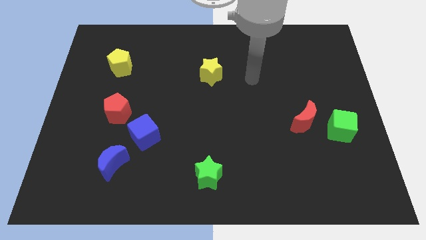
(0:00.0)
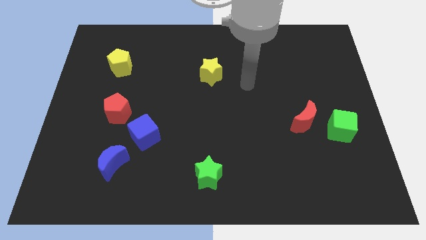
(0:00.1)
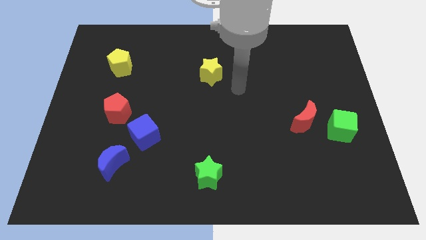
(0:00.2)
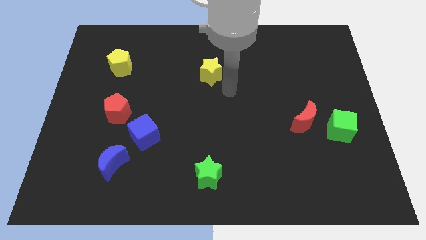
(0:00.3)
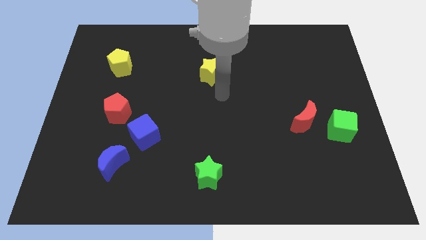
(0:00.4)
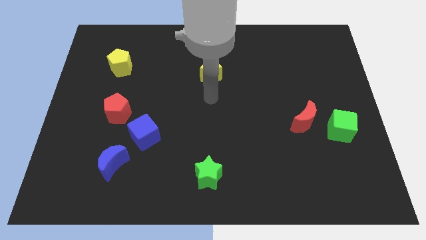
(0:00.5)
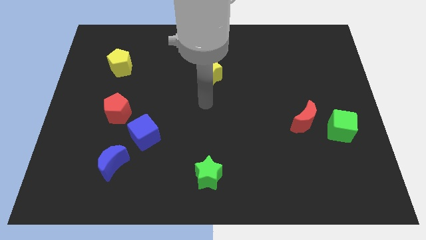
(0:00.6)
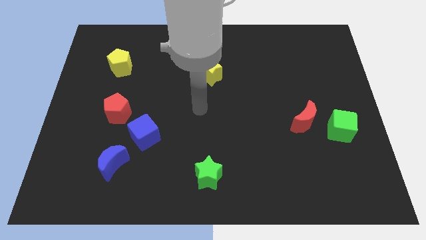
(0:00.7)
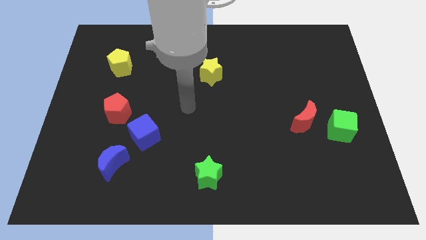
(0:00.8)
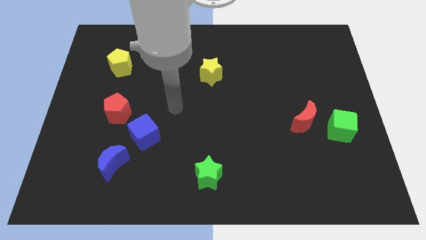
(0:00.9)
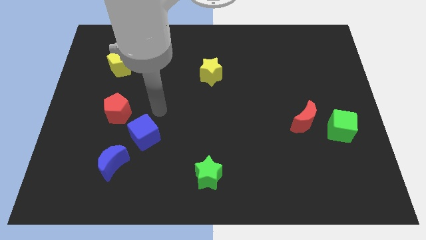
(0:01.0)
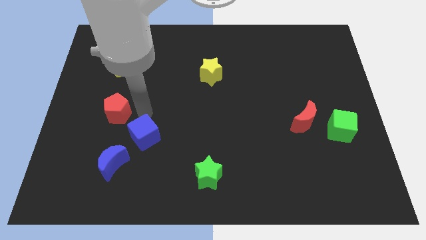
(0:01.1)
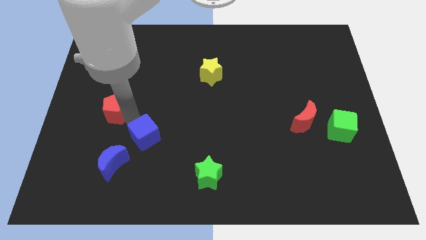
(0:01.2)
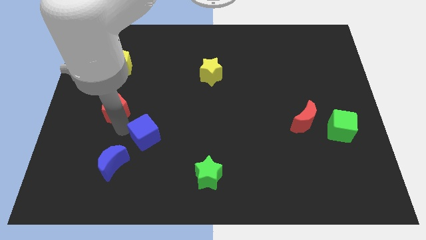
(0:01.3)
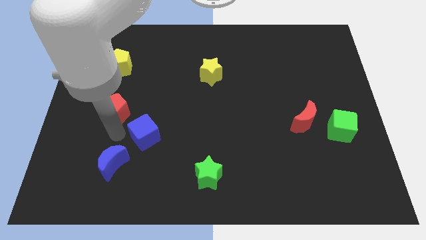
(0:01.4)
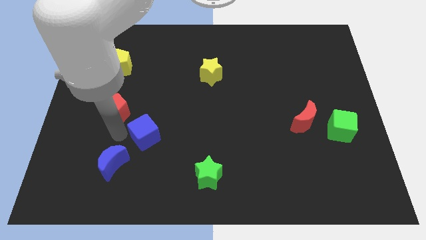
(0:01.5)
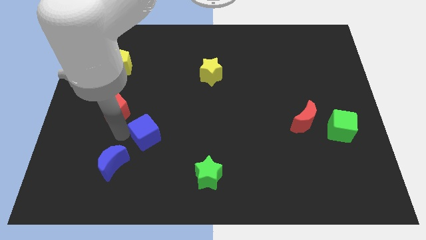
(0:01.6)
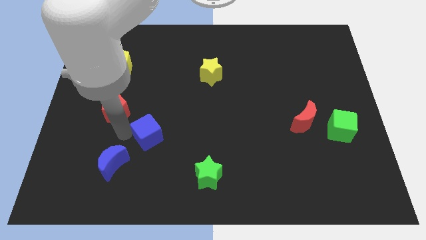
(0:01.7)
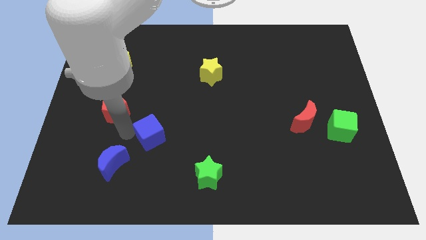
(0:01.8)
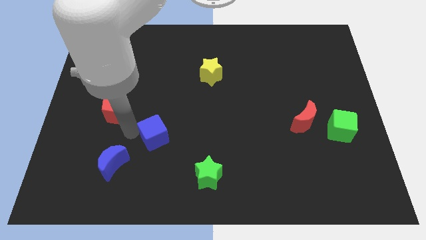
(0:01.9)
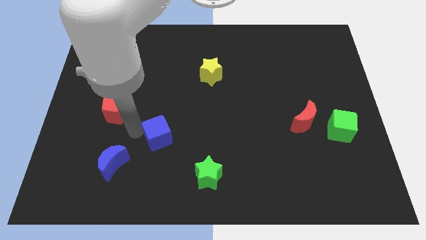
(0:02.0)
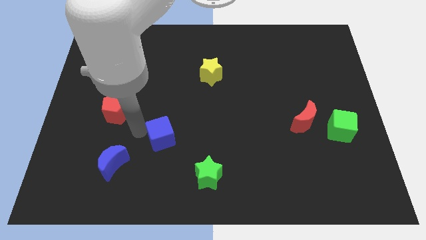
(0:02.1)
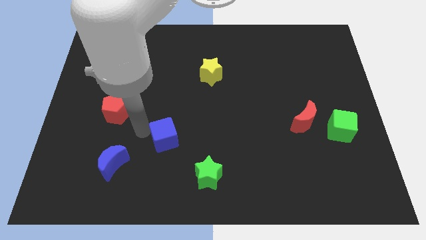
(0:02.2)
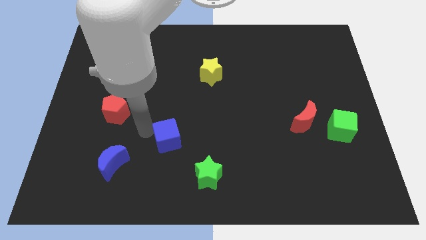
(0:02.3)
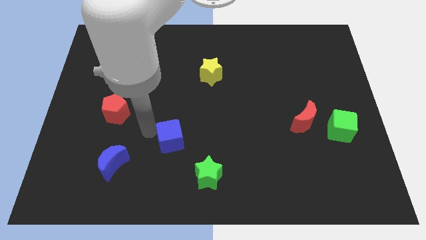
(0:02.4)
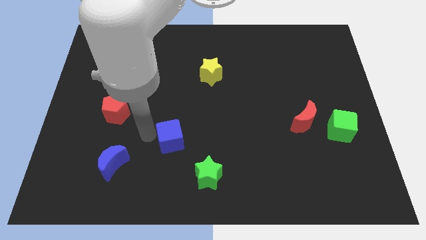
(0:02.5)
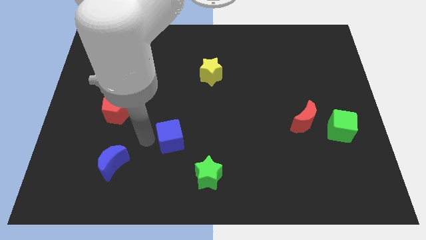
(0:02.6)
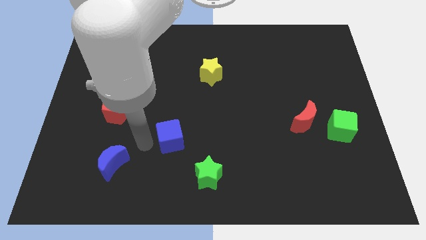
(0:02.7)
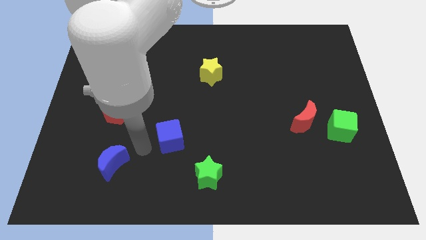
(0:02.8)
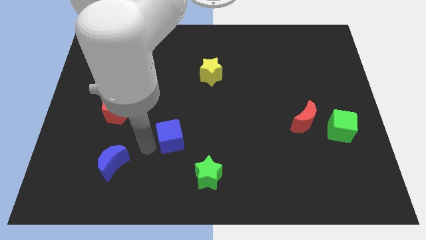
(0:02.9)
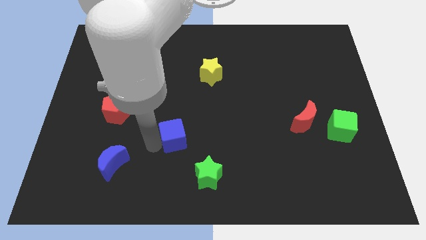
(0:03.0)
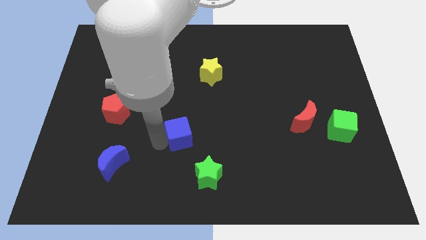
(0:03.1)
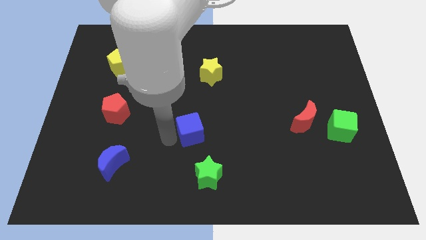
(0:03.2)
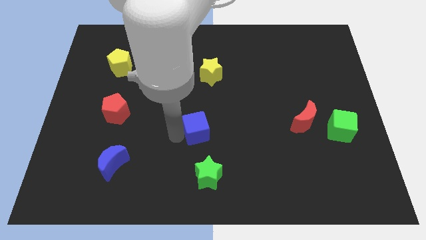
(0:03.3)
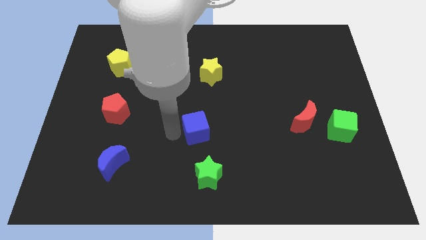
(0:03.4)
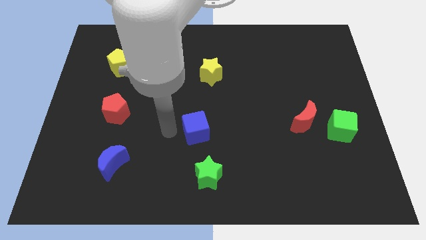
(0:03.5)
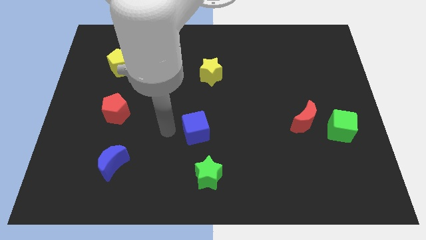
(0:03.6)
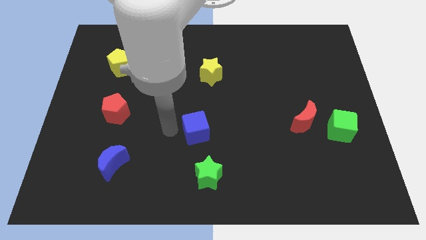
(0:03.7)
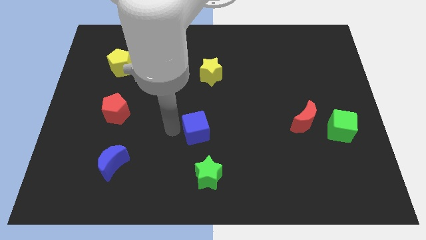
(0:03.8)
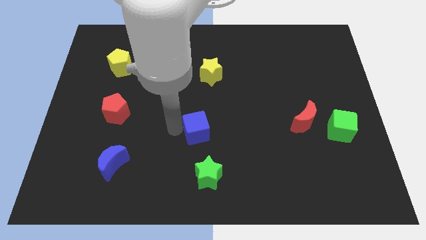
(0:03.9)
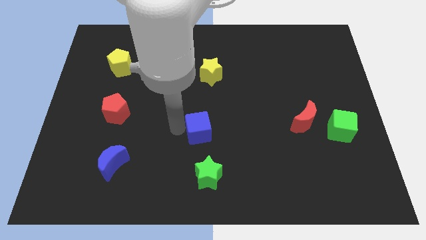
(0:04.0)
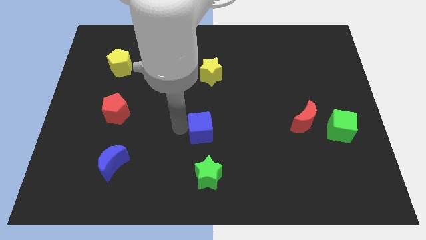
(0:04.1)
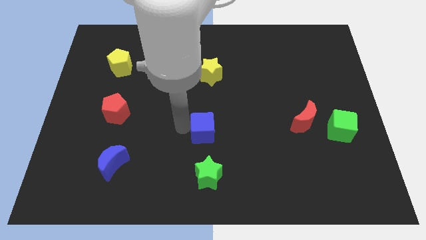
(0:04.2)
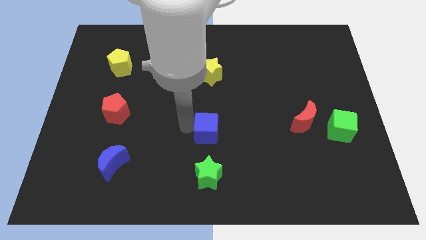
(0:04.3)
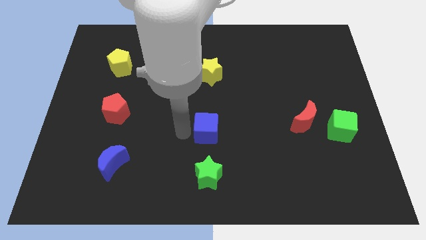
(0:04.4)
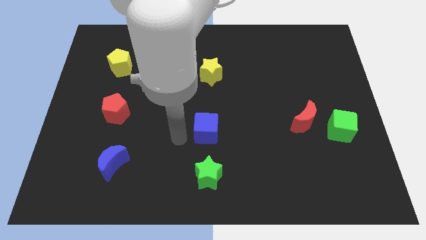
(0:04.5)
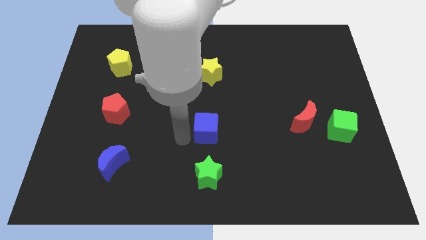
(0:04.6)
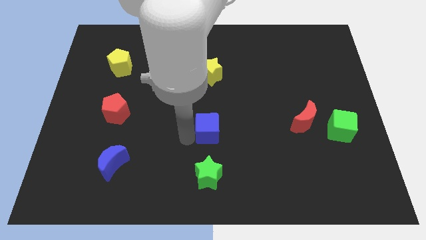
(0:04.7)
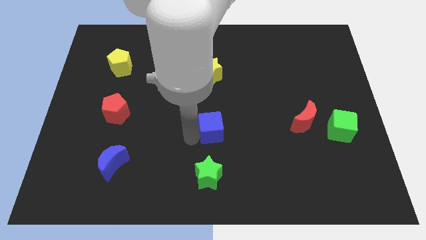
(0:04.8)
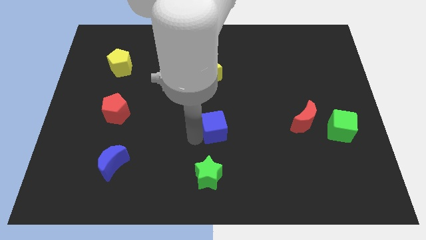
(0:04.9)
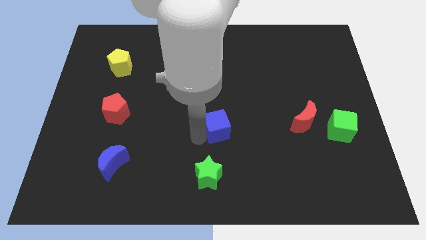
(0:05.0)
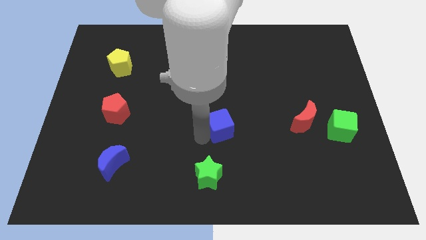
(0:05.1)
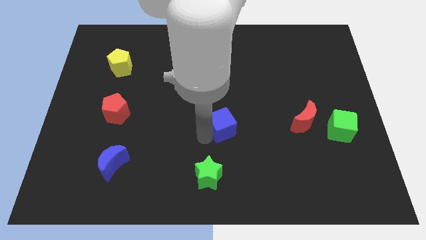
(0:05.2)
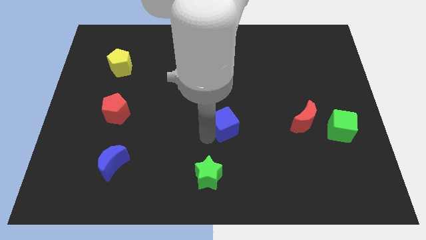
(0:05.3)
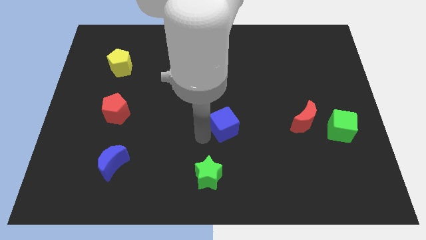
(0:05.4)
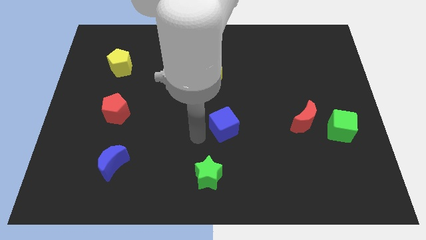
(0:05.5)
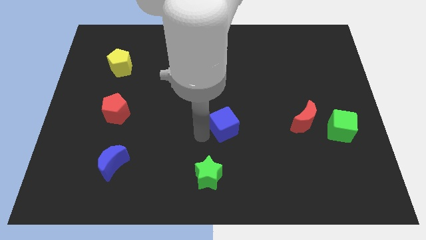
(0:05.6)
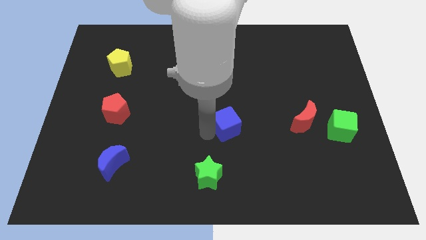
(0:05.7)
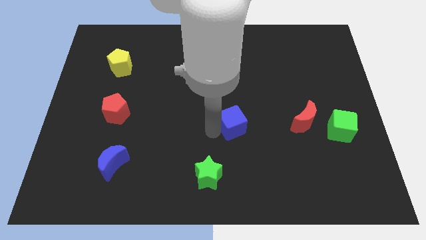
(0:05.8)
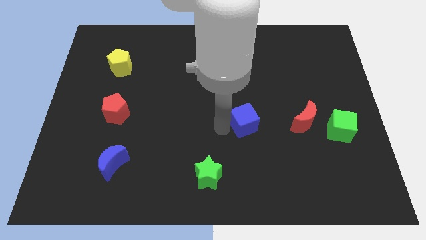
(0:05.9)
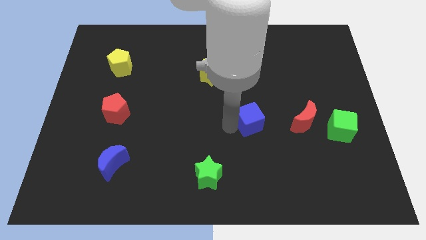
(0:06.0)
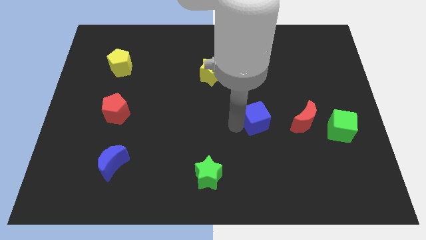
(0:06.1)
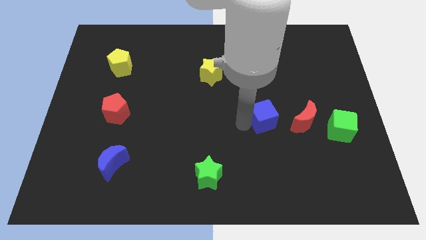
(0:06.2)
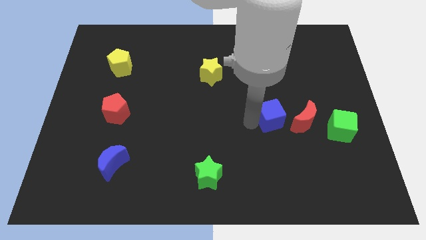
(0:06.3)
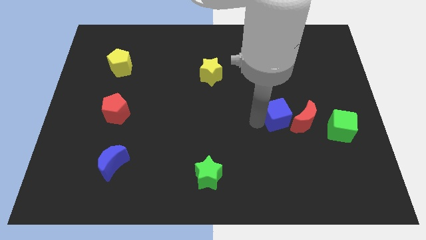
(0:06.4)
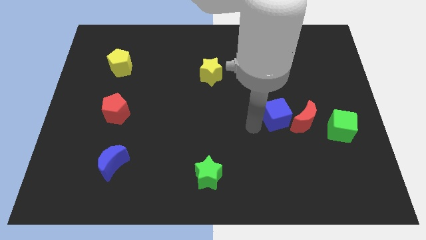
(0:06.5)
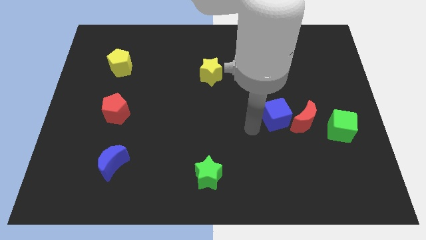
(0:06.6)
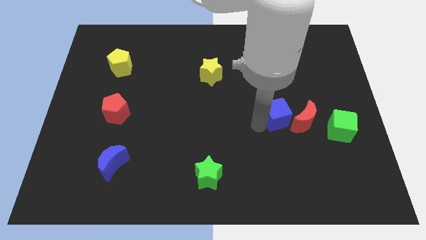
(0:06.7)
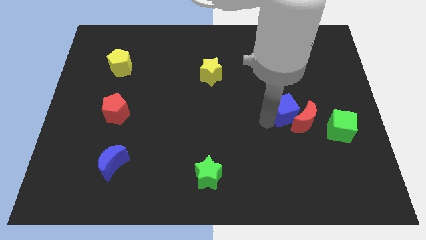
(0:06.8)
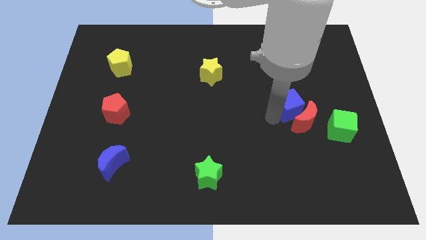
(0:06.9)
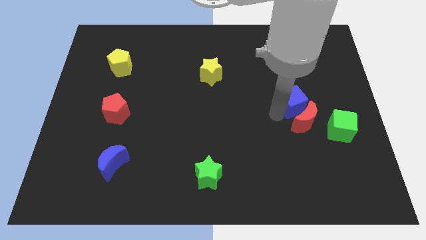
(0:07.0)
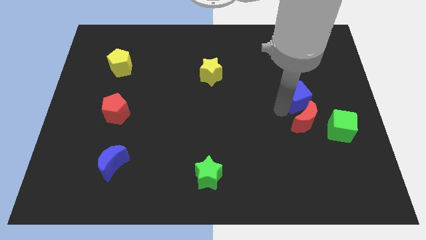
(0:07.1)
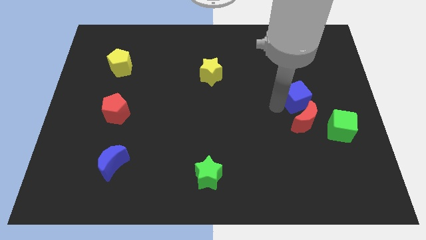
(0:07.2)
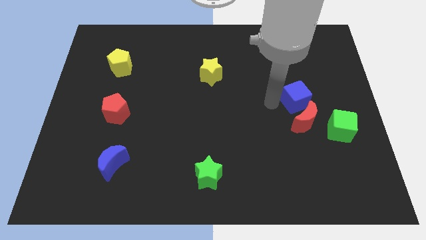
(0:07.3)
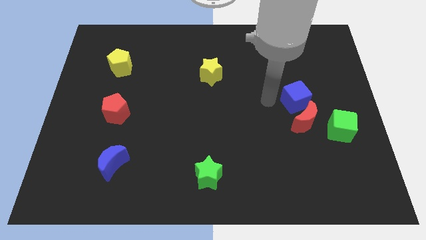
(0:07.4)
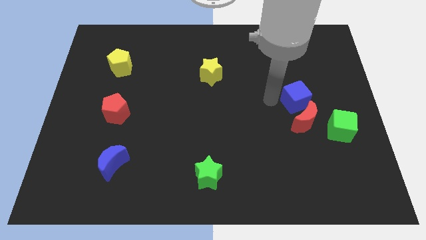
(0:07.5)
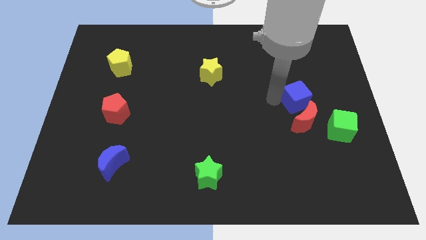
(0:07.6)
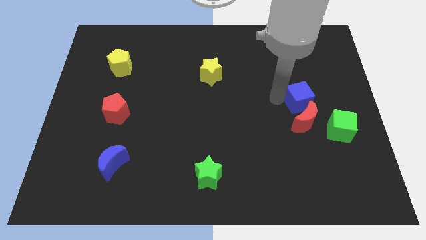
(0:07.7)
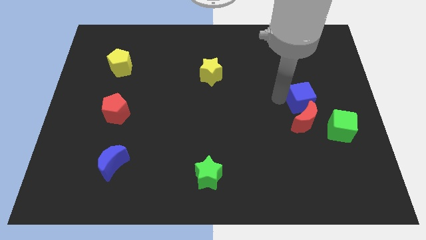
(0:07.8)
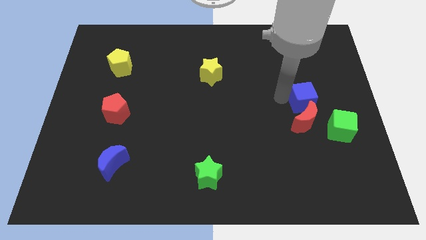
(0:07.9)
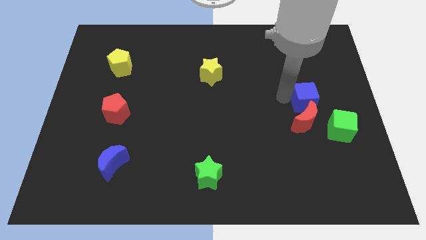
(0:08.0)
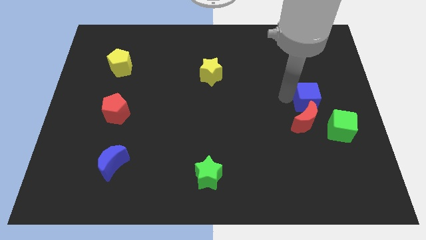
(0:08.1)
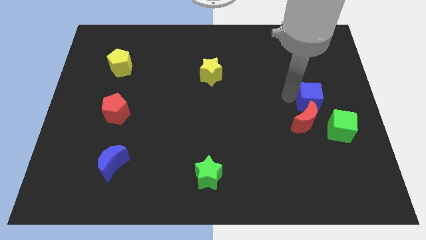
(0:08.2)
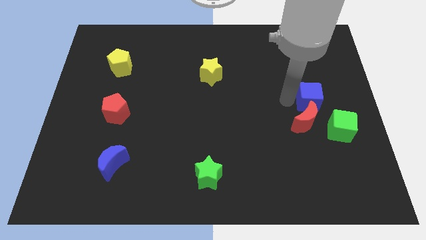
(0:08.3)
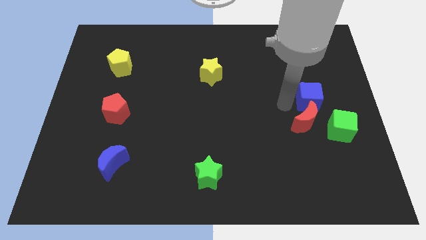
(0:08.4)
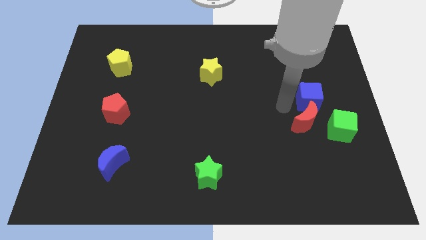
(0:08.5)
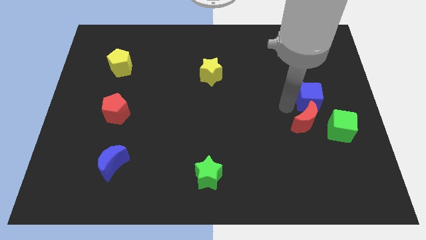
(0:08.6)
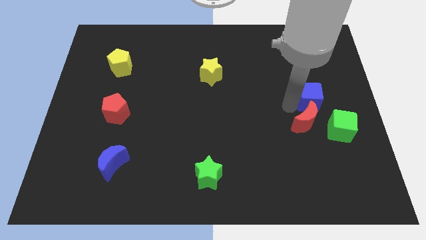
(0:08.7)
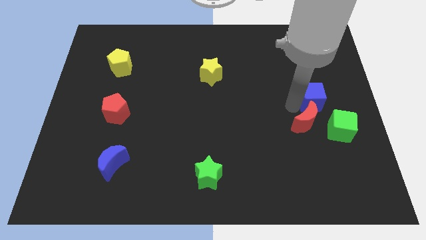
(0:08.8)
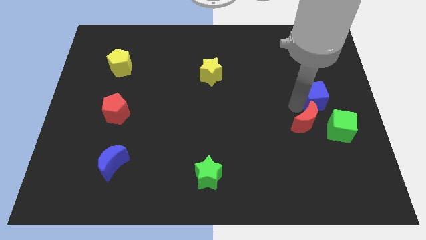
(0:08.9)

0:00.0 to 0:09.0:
slide the blue cube to the top of the green cube
